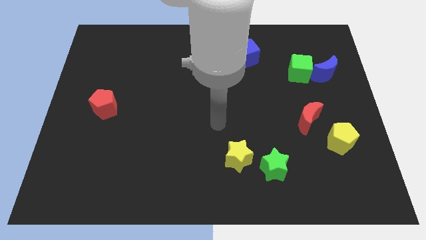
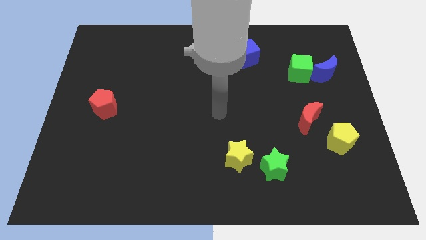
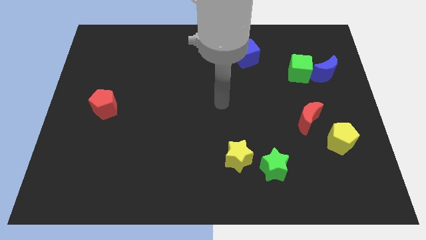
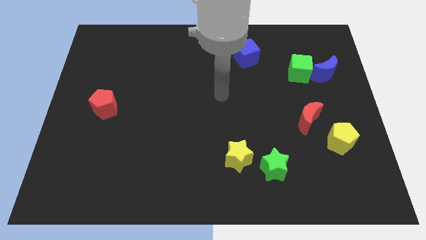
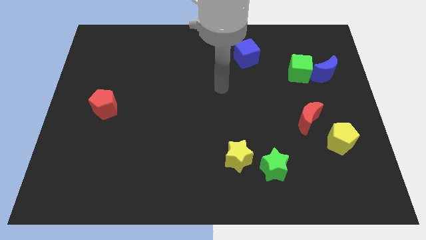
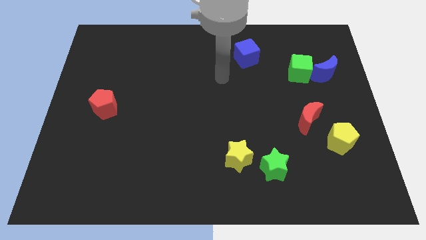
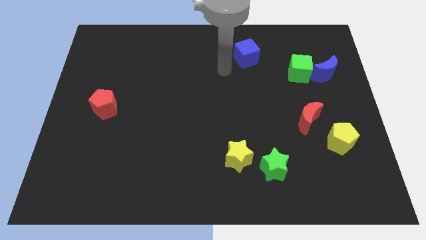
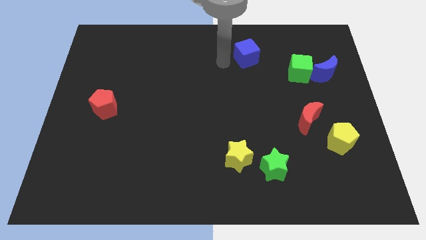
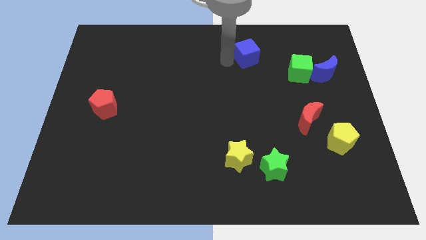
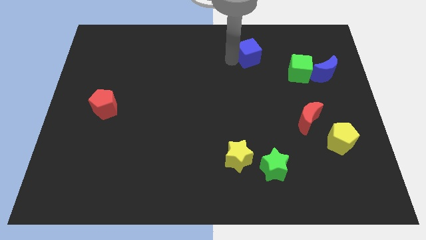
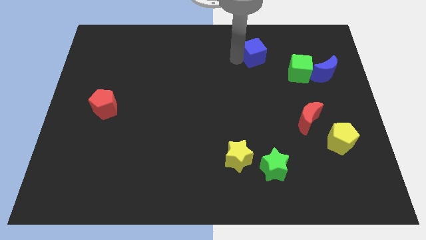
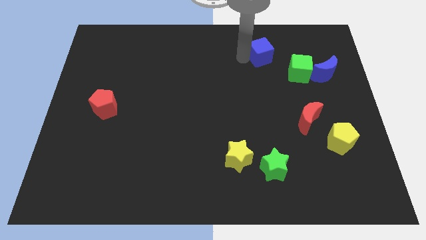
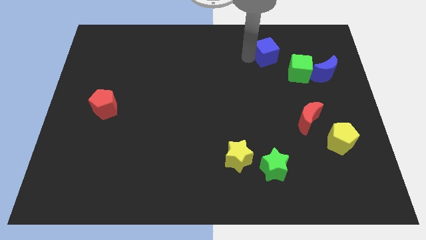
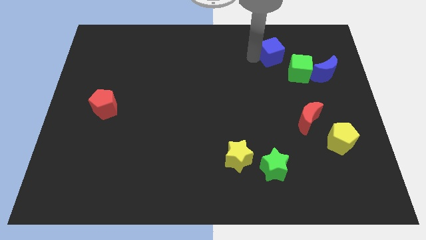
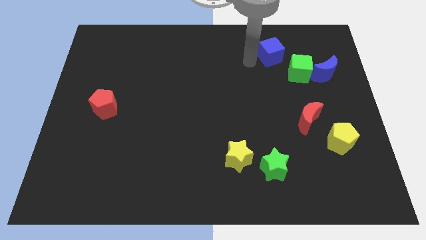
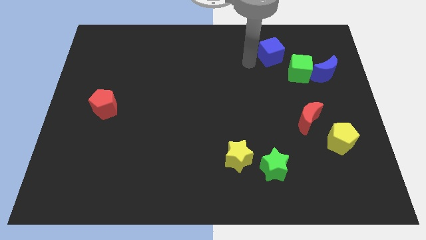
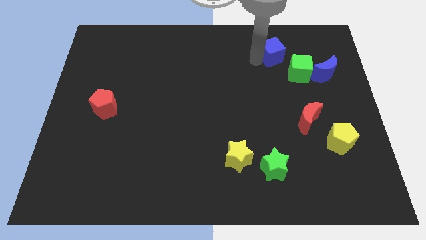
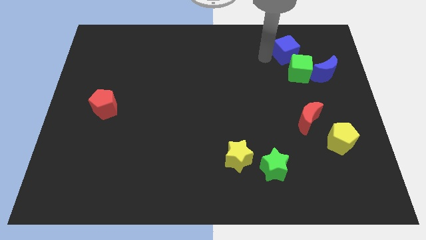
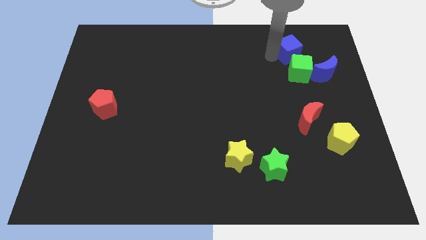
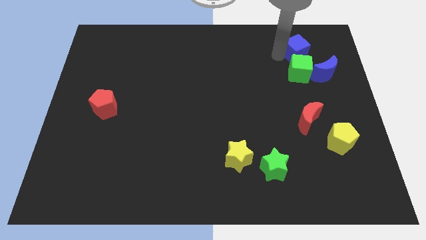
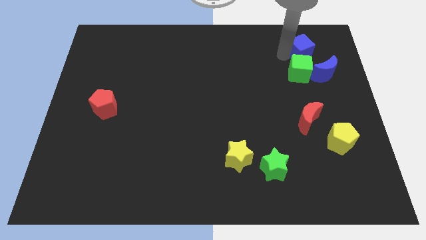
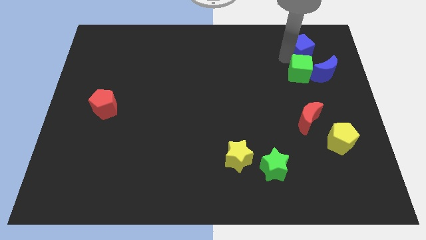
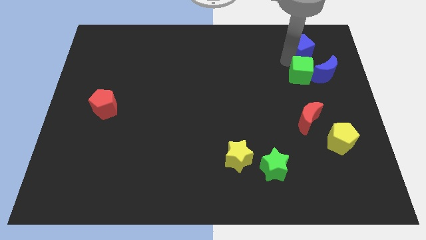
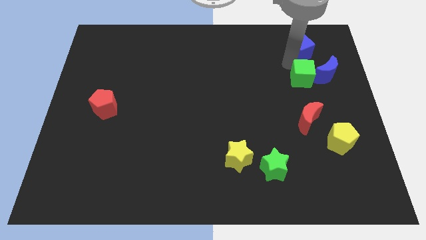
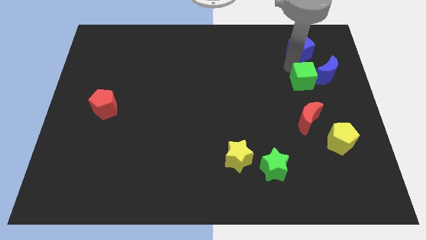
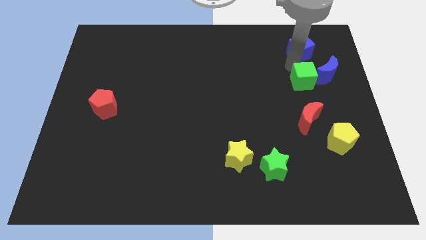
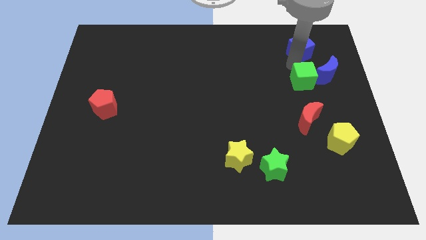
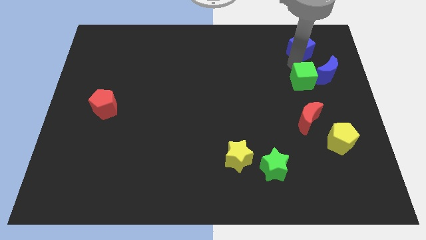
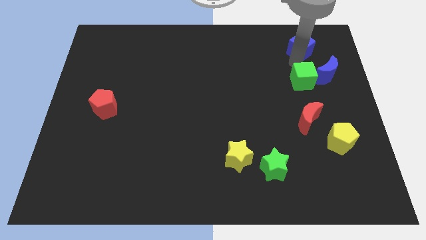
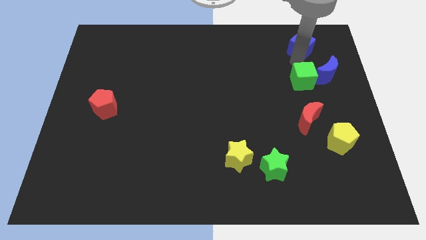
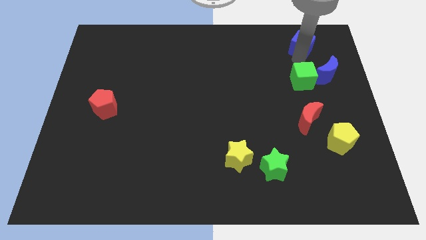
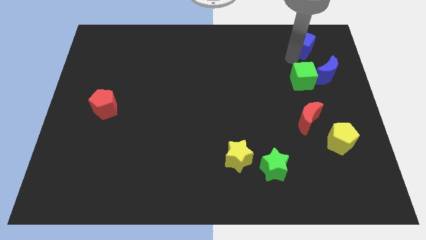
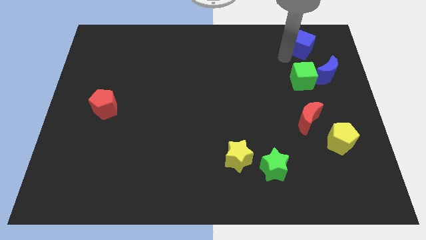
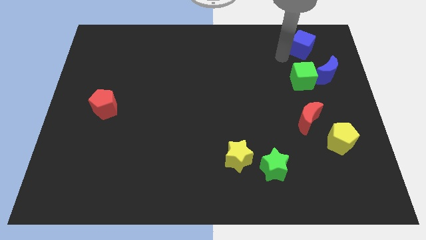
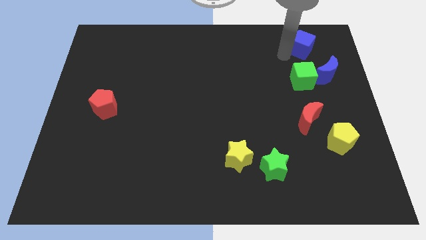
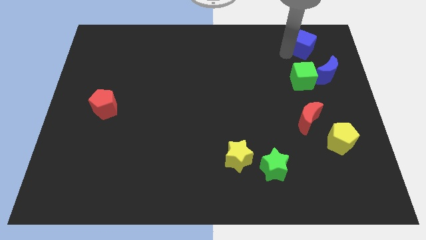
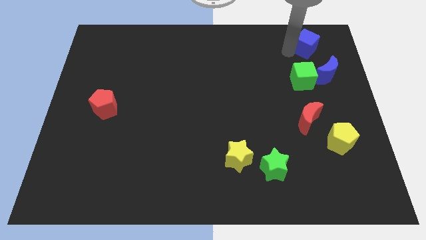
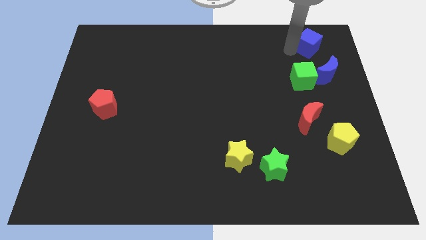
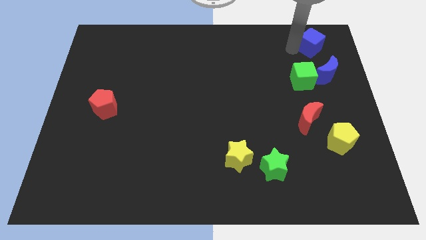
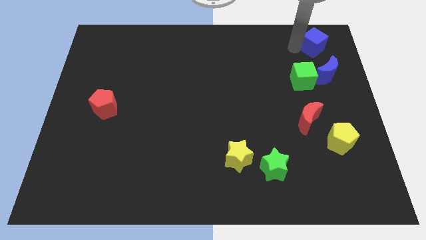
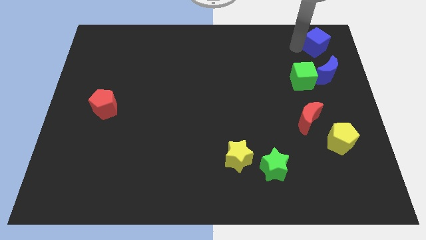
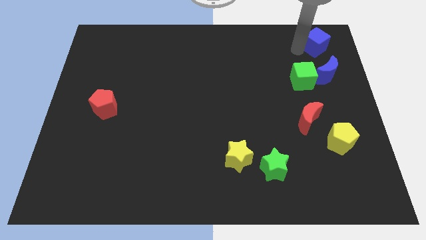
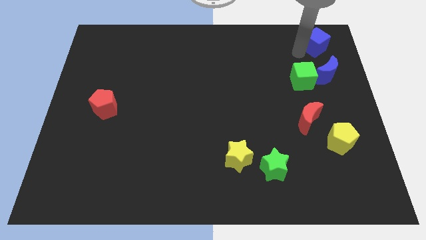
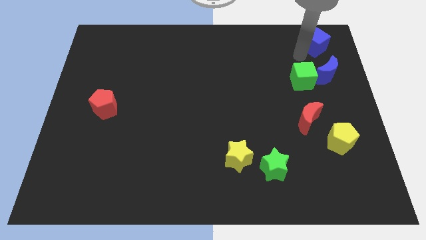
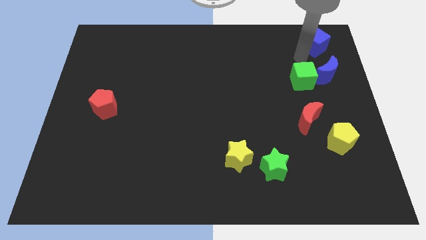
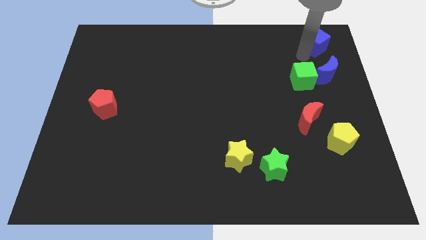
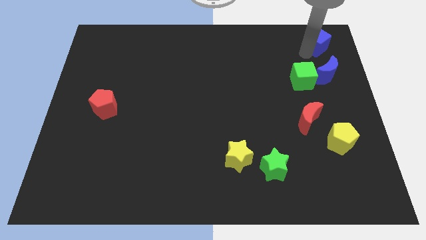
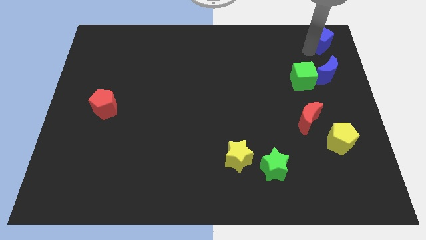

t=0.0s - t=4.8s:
put the blue cube to the upper right corner

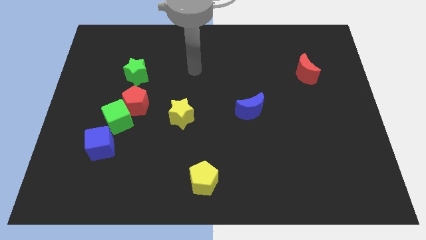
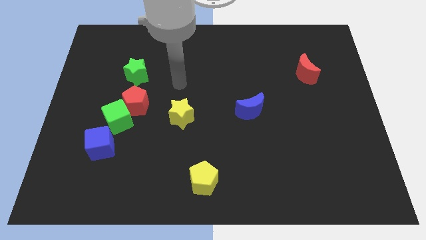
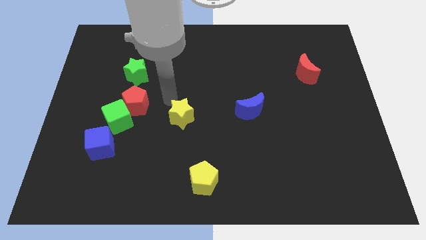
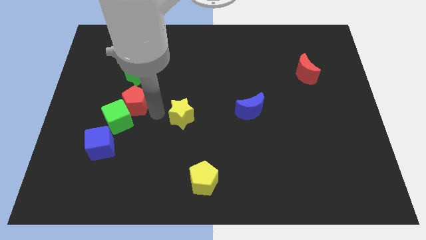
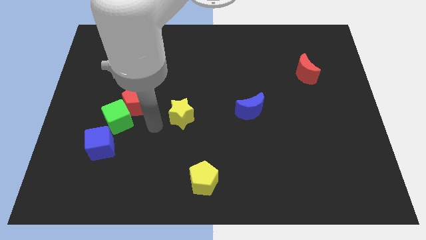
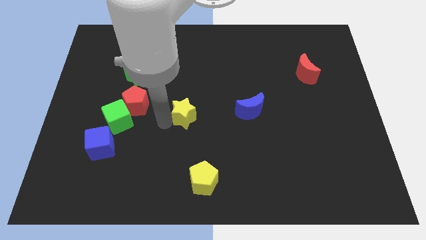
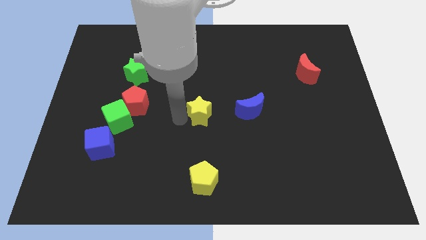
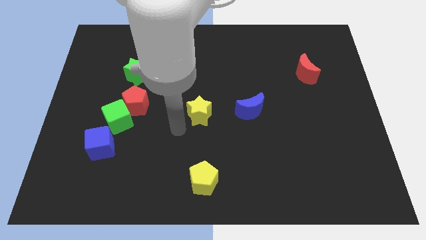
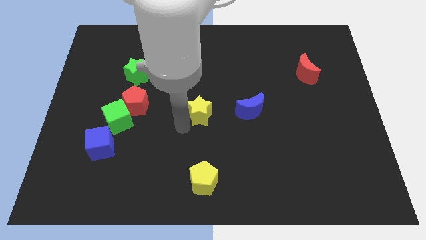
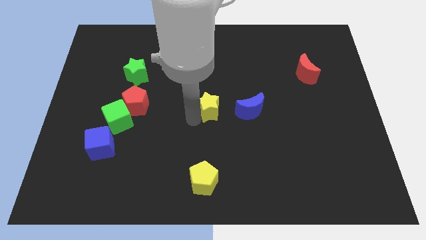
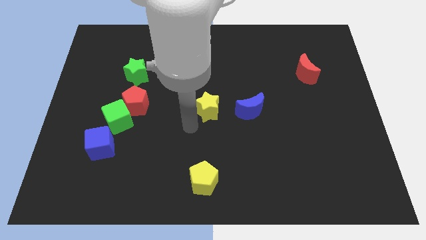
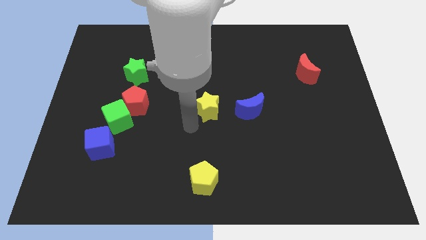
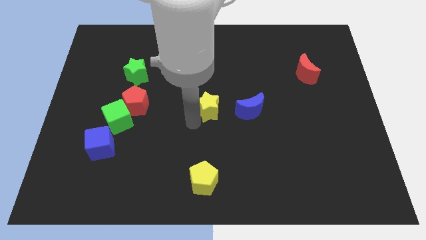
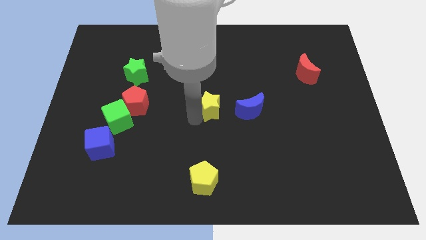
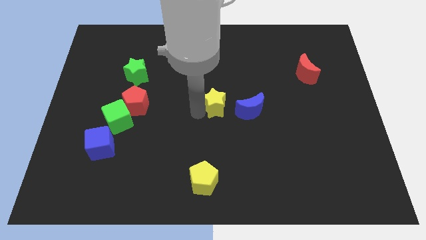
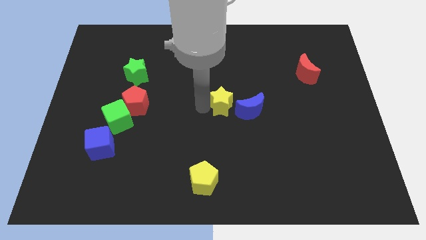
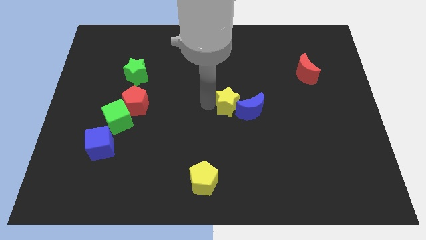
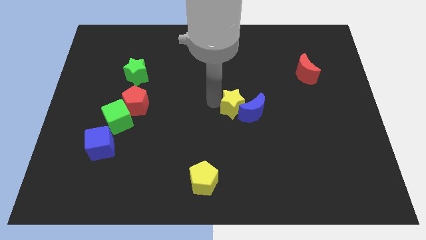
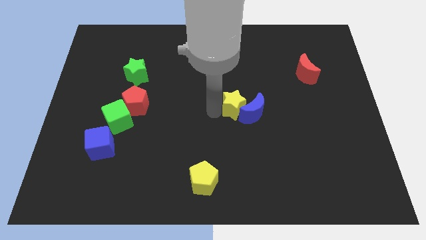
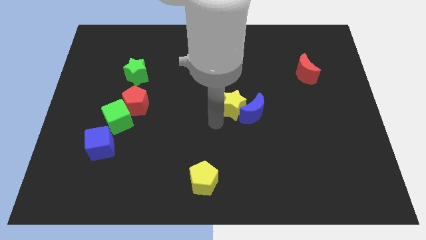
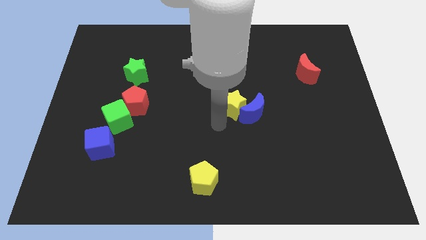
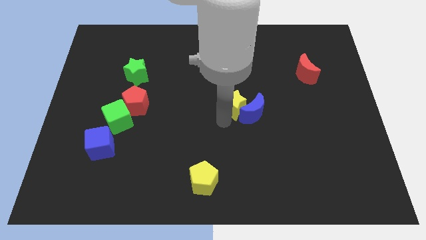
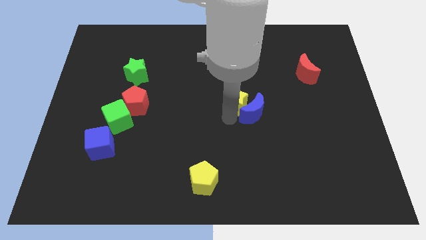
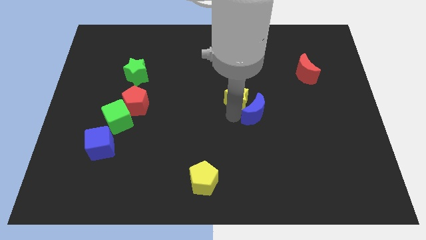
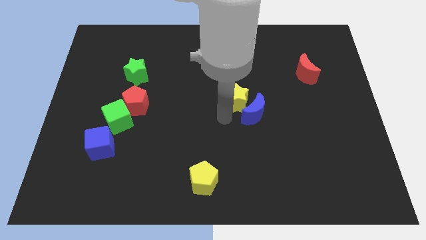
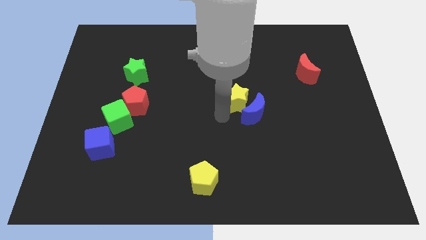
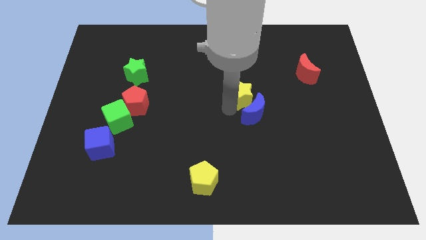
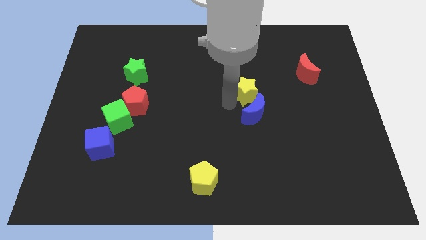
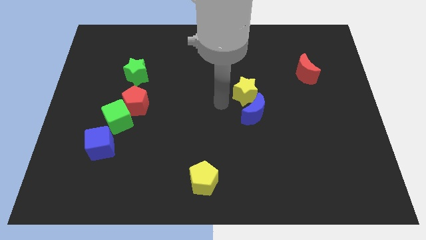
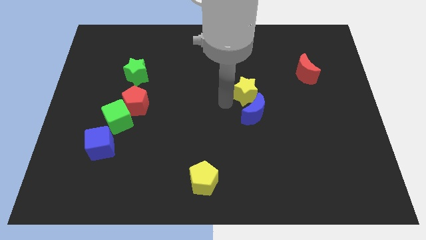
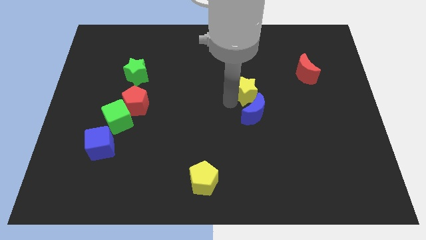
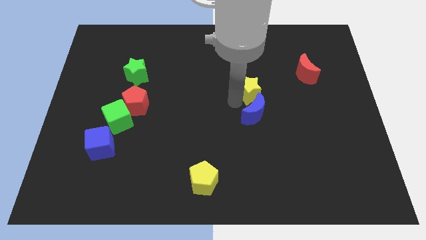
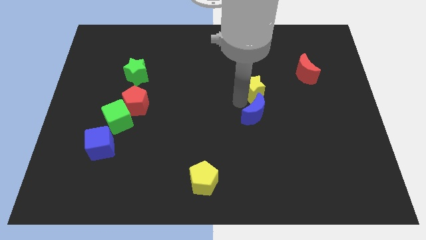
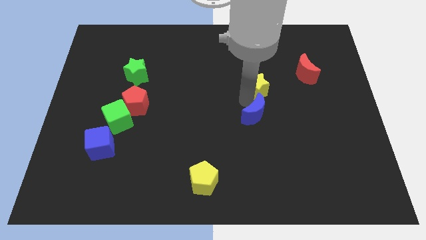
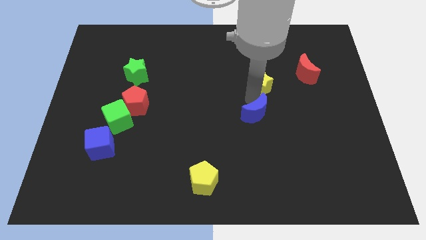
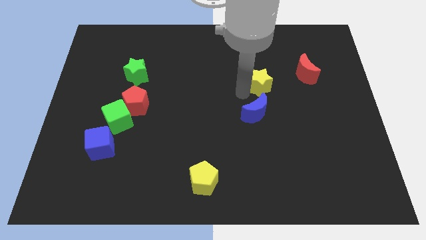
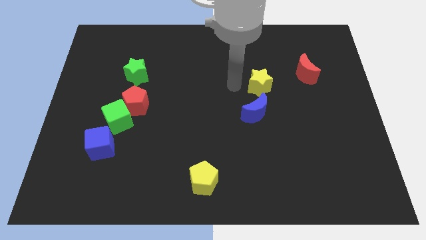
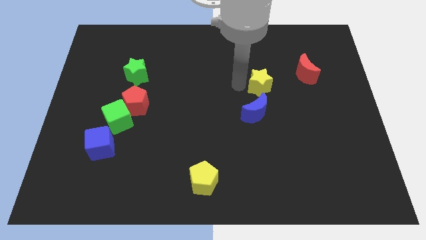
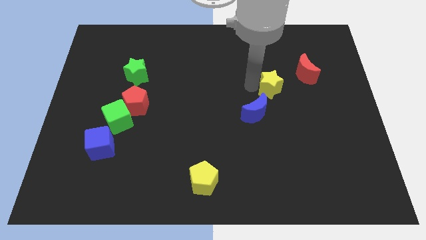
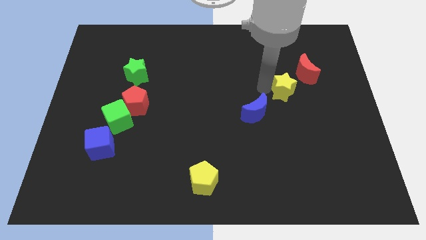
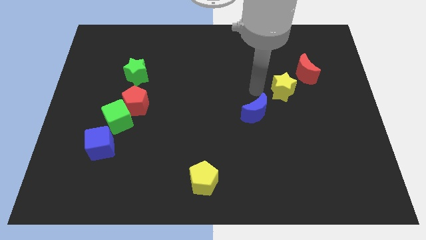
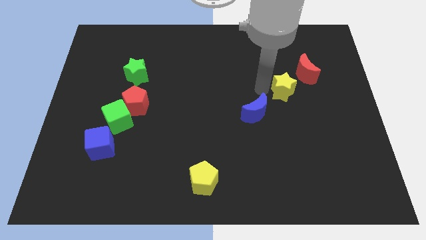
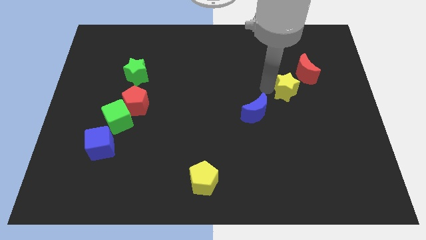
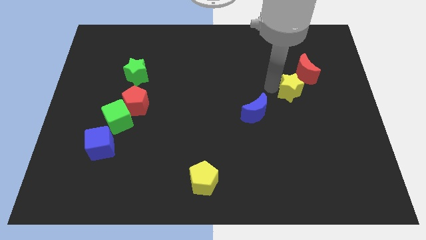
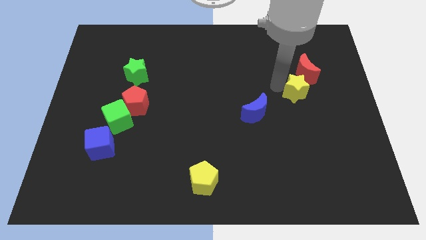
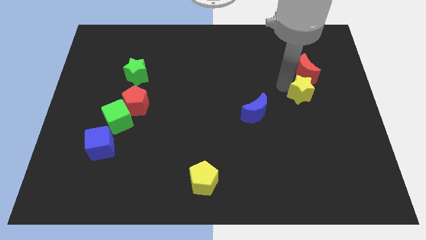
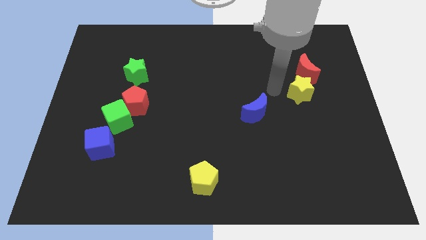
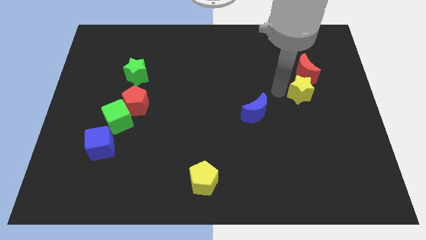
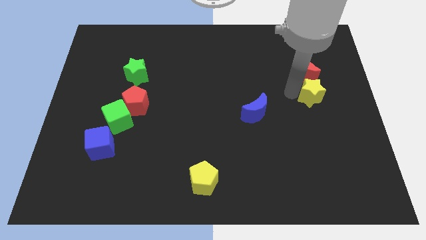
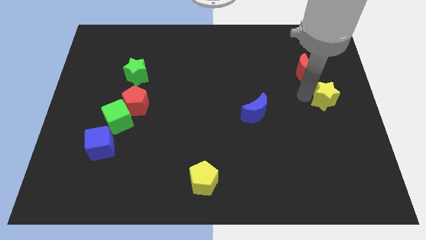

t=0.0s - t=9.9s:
push the yellow star to the center right
